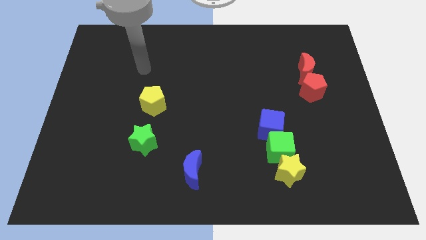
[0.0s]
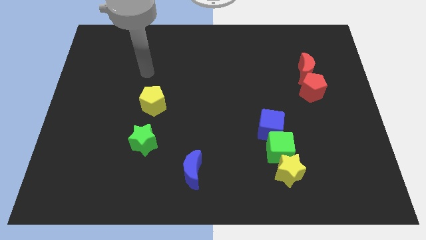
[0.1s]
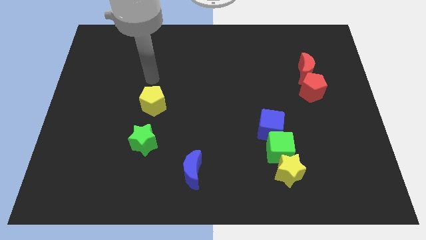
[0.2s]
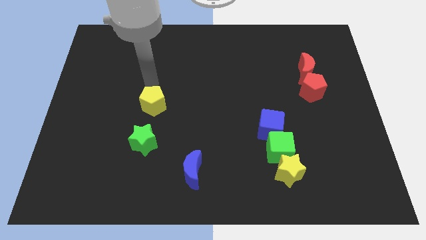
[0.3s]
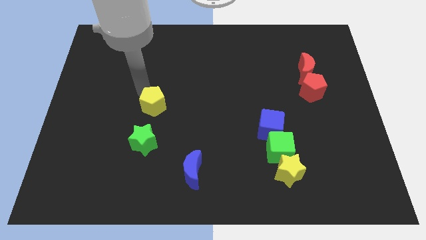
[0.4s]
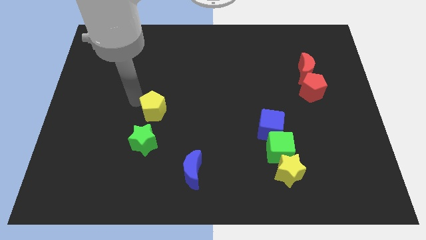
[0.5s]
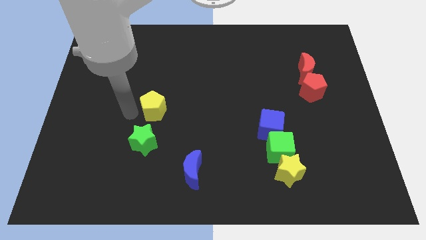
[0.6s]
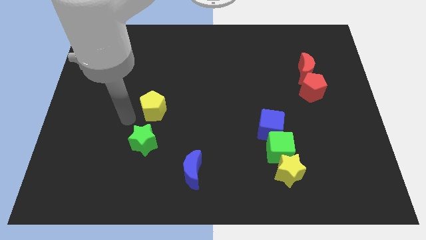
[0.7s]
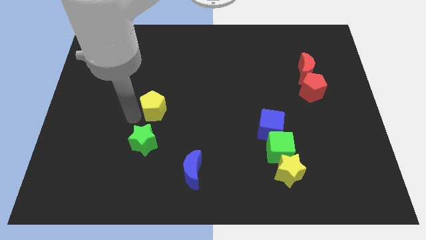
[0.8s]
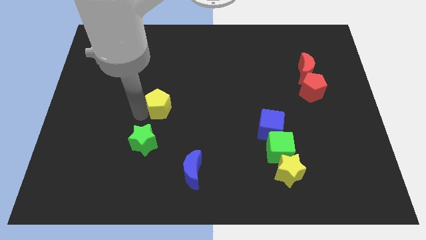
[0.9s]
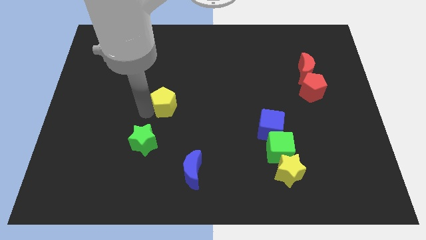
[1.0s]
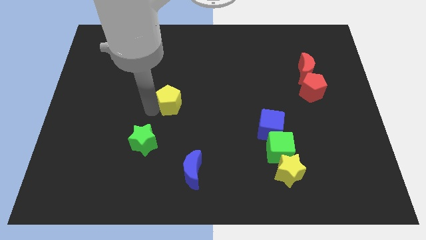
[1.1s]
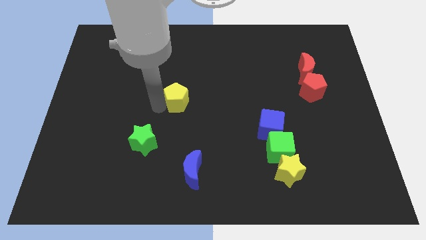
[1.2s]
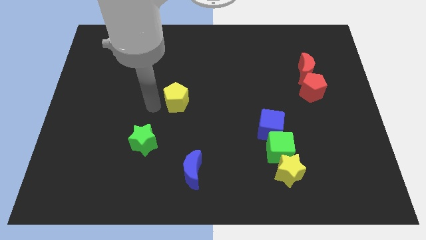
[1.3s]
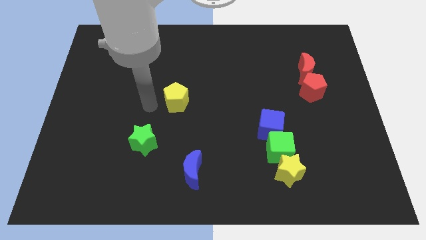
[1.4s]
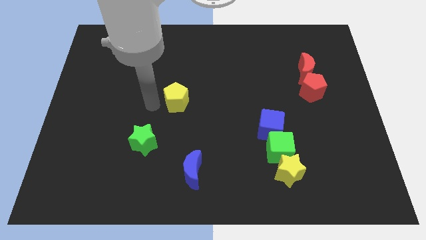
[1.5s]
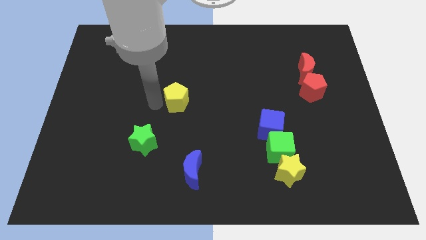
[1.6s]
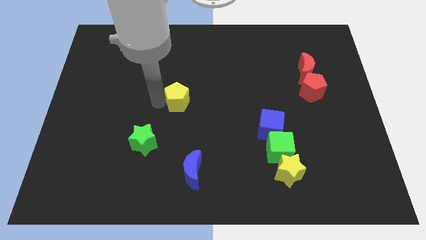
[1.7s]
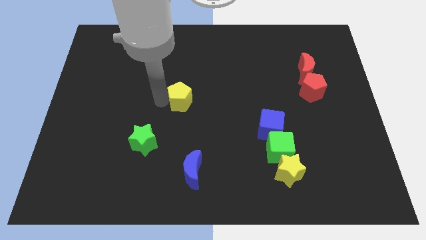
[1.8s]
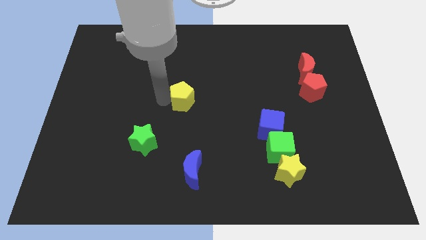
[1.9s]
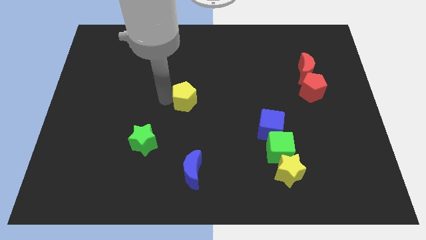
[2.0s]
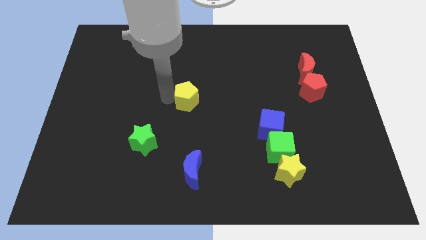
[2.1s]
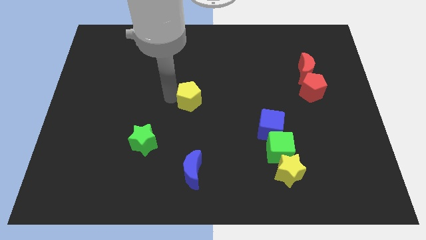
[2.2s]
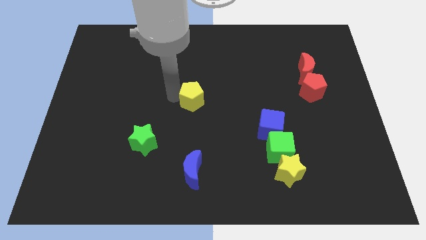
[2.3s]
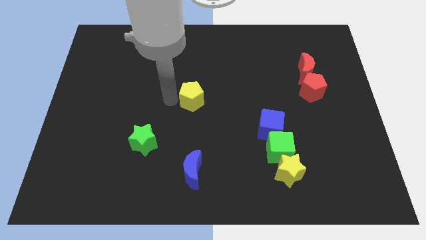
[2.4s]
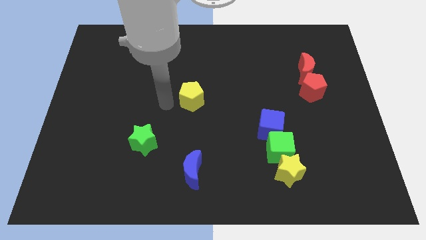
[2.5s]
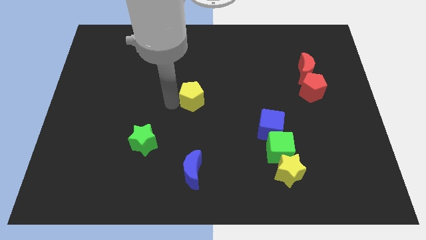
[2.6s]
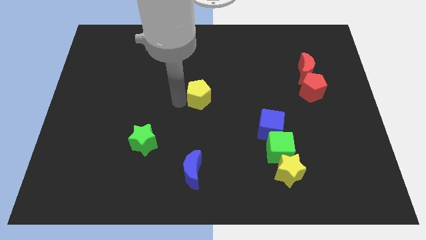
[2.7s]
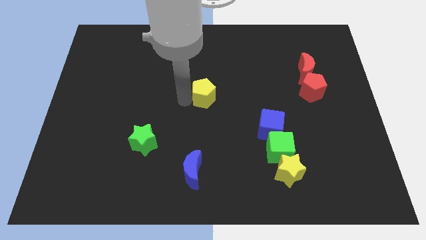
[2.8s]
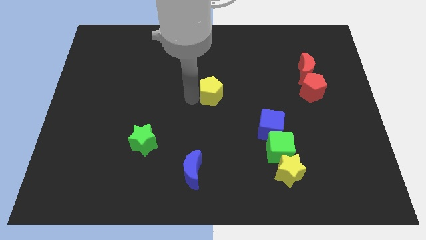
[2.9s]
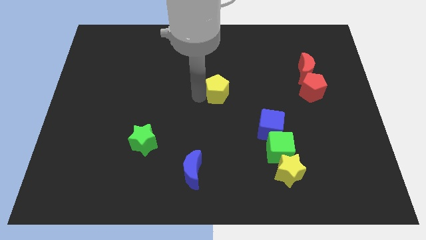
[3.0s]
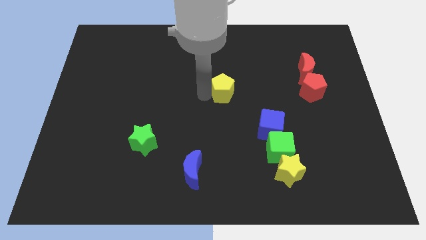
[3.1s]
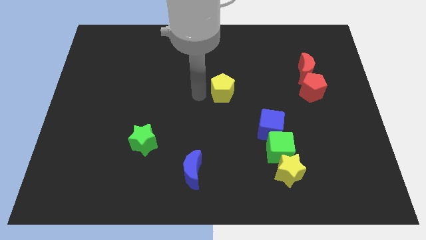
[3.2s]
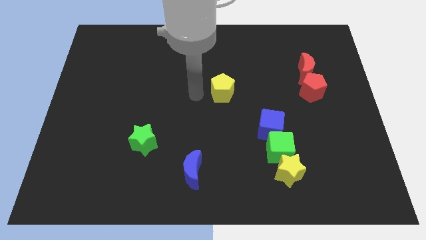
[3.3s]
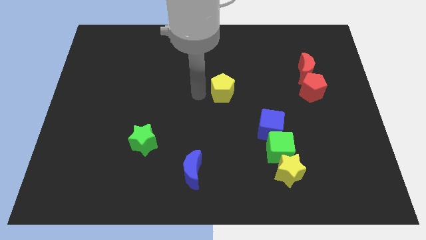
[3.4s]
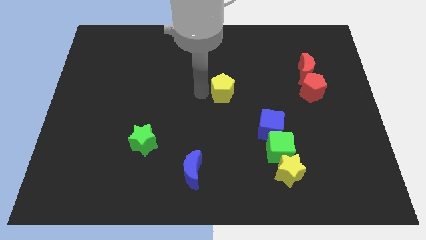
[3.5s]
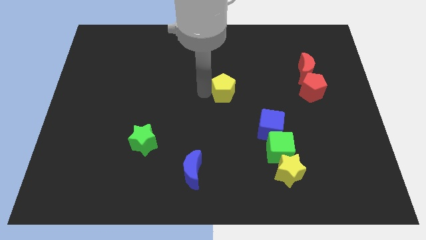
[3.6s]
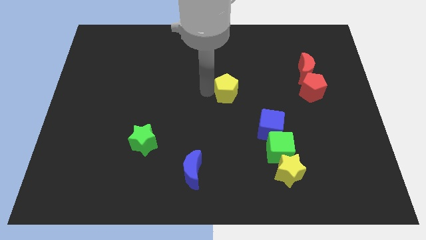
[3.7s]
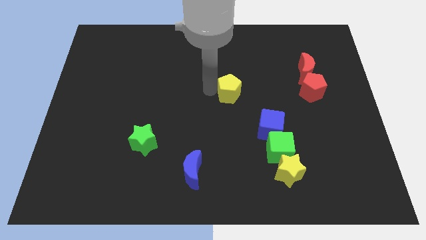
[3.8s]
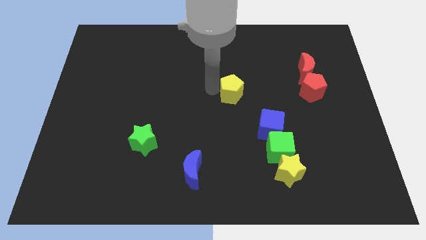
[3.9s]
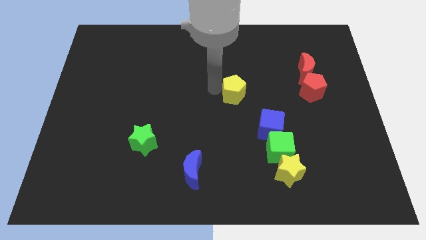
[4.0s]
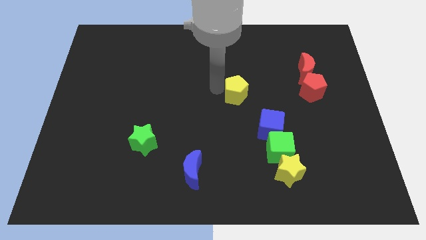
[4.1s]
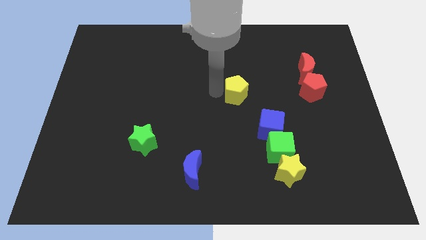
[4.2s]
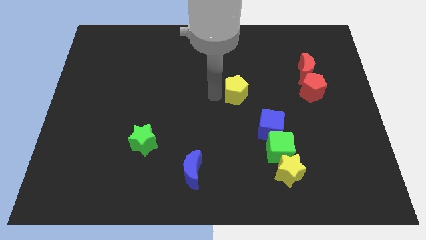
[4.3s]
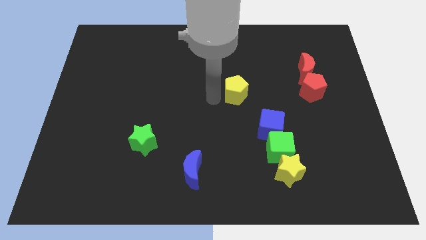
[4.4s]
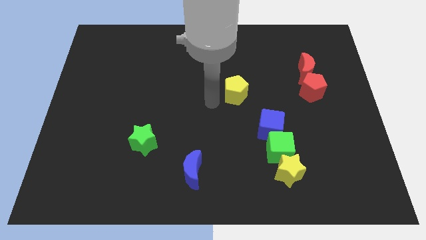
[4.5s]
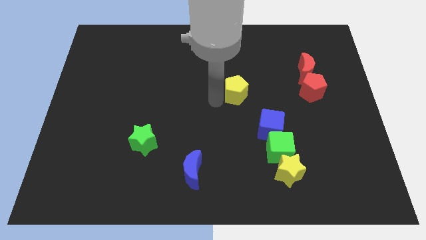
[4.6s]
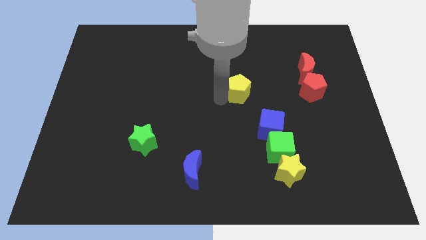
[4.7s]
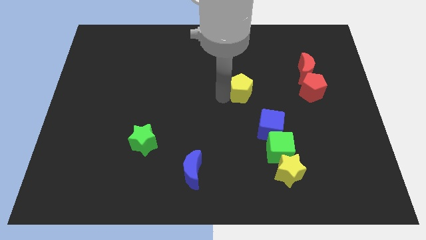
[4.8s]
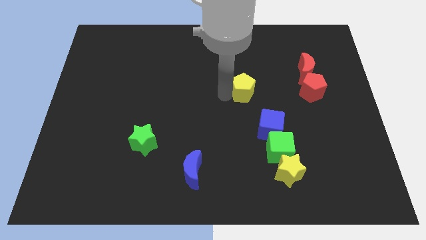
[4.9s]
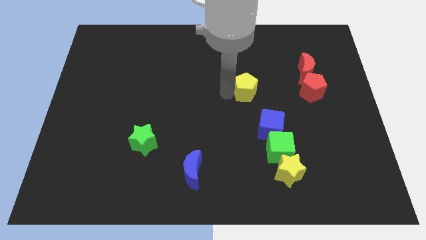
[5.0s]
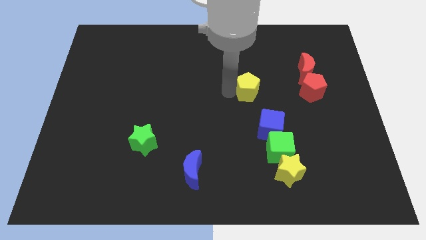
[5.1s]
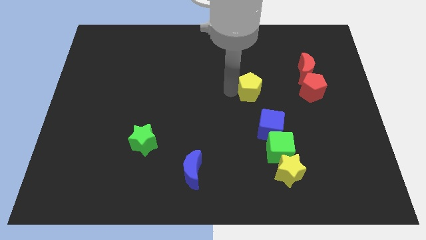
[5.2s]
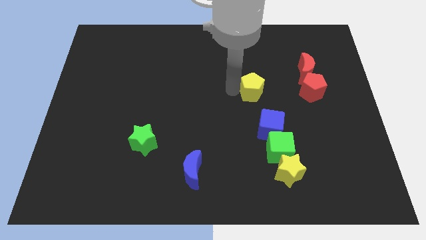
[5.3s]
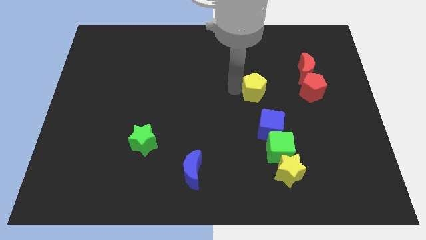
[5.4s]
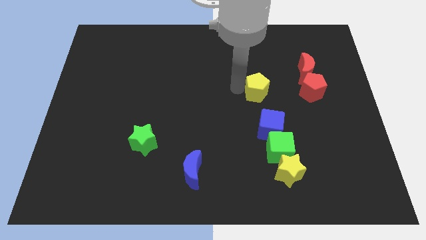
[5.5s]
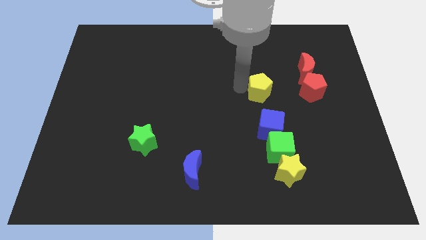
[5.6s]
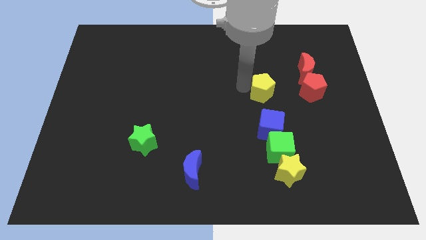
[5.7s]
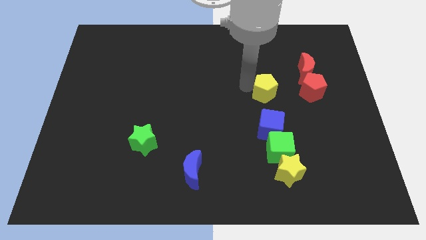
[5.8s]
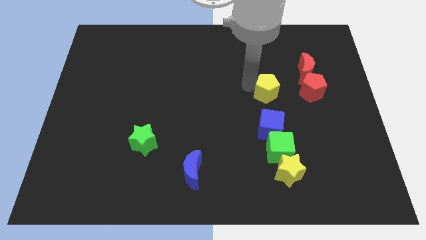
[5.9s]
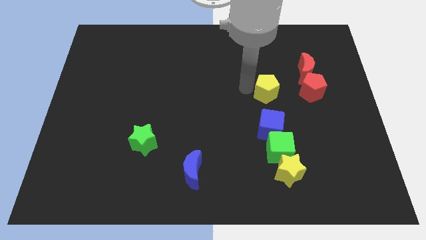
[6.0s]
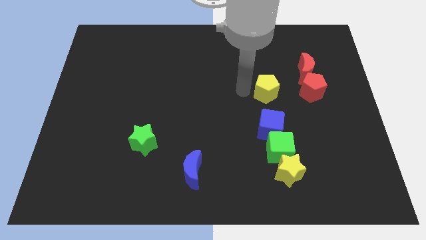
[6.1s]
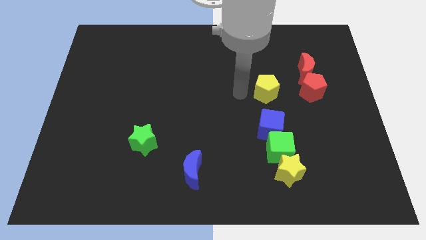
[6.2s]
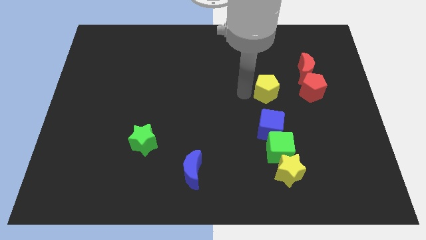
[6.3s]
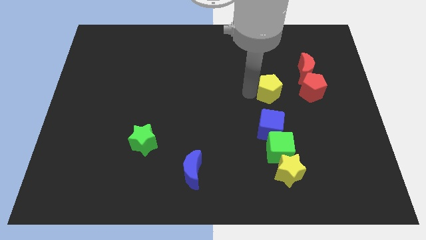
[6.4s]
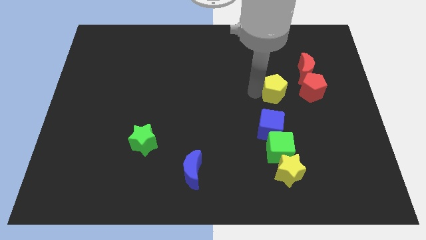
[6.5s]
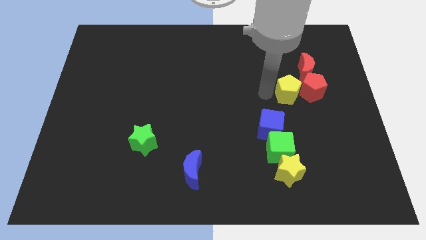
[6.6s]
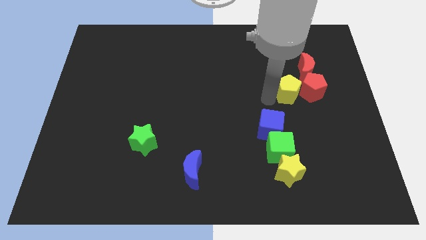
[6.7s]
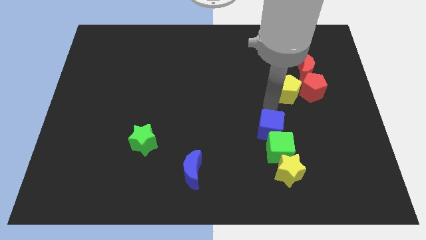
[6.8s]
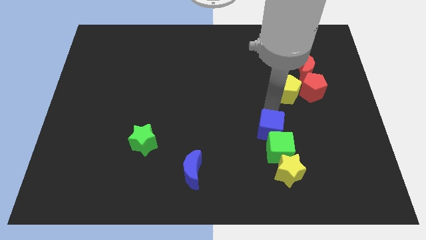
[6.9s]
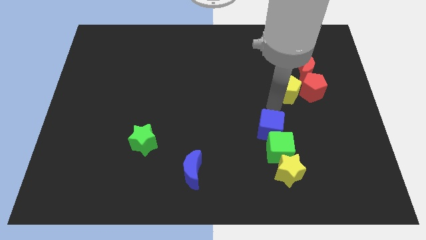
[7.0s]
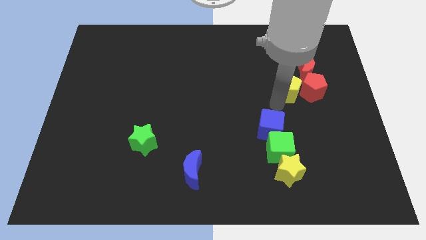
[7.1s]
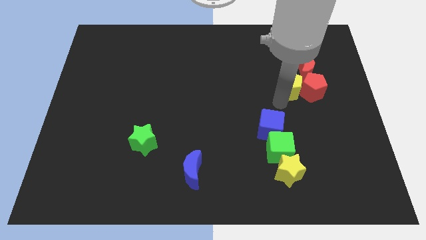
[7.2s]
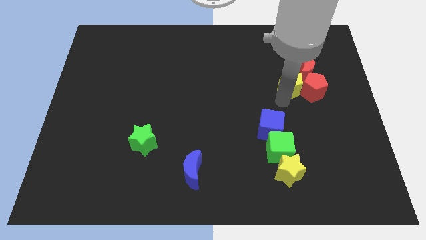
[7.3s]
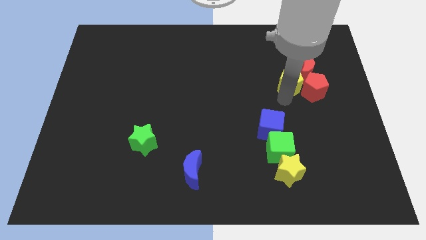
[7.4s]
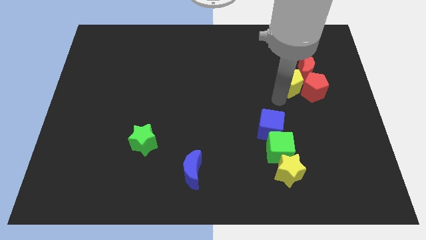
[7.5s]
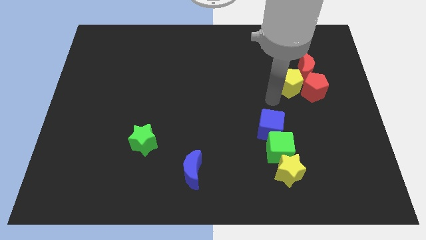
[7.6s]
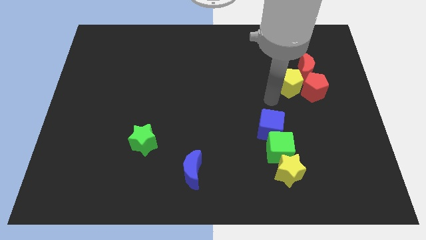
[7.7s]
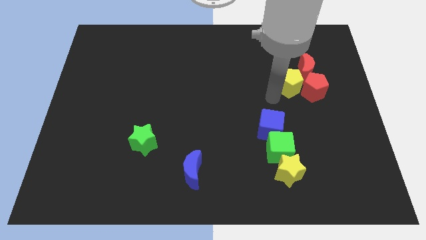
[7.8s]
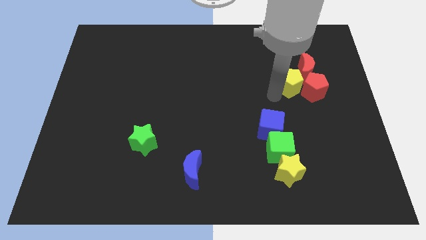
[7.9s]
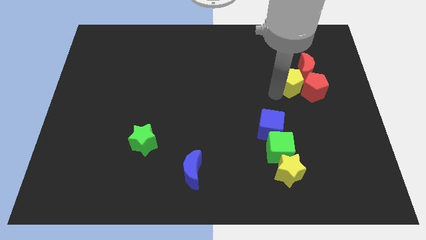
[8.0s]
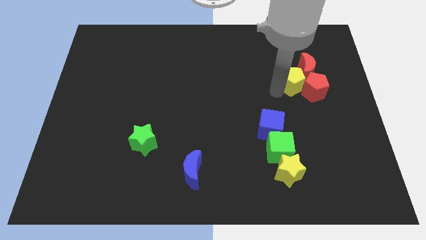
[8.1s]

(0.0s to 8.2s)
move the yellow pentagon next to the red moon
